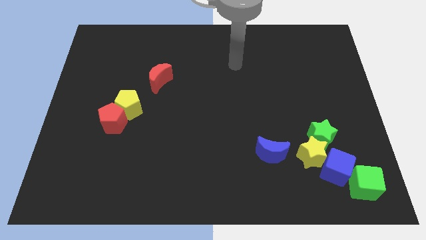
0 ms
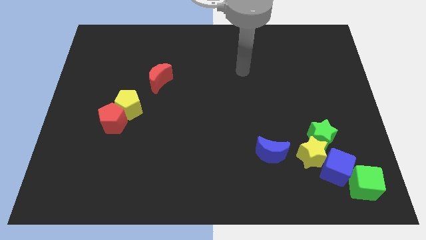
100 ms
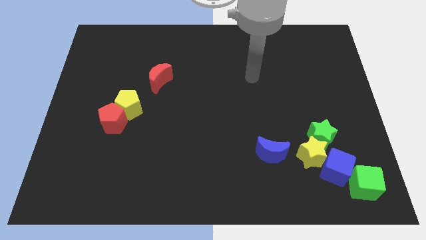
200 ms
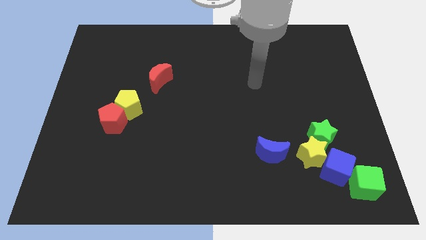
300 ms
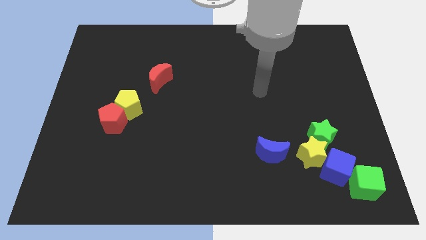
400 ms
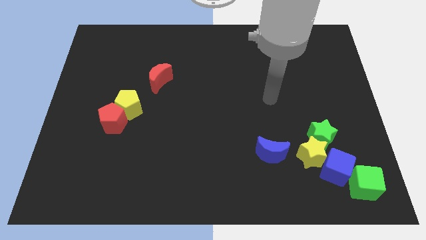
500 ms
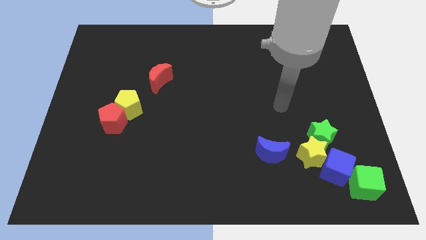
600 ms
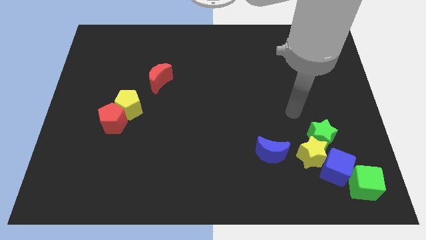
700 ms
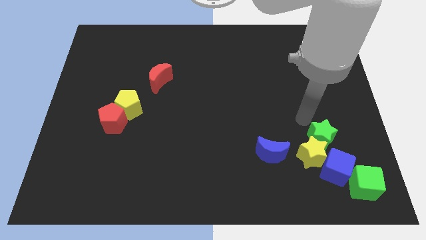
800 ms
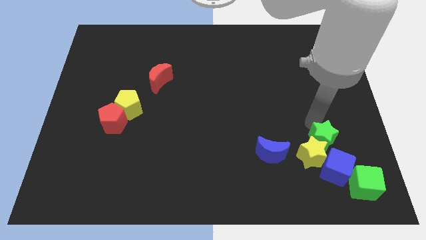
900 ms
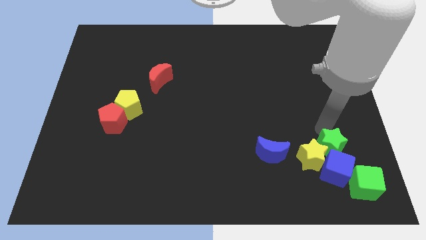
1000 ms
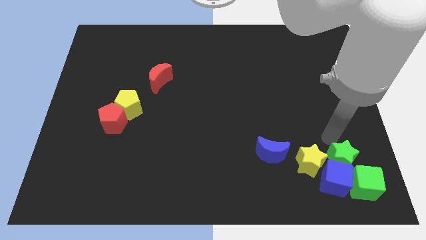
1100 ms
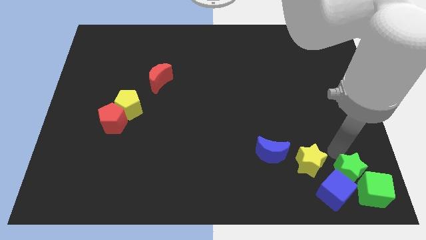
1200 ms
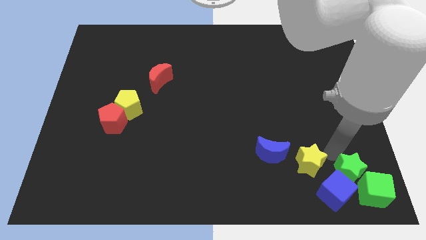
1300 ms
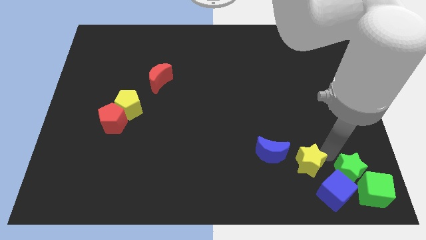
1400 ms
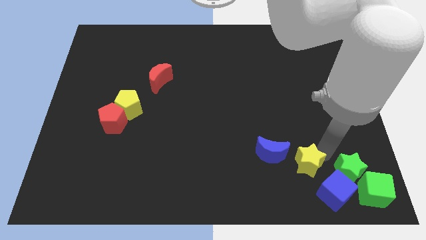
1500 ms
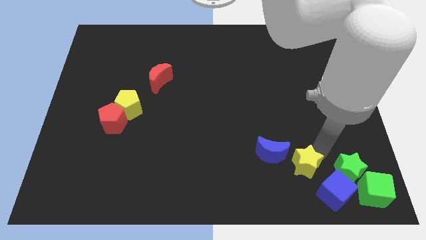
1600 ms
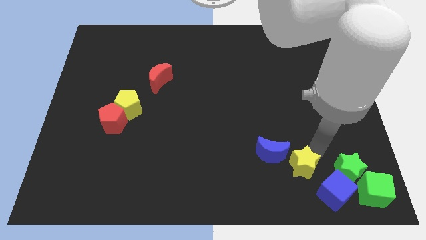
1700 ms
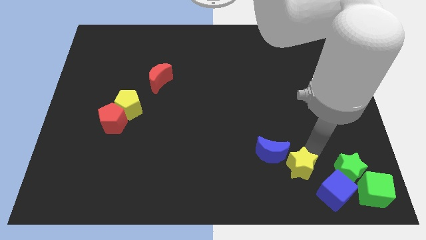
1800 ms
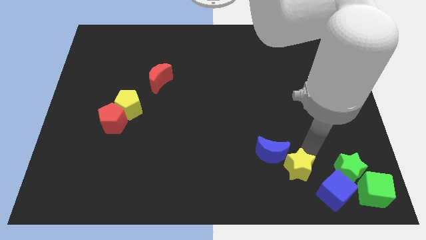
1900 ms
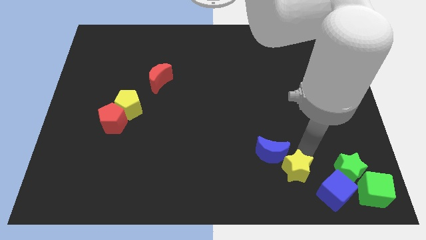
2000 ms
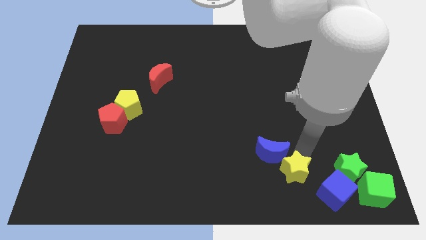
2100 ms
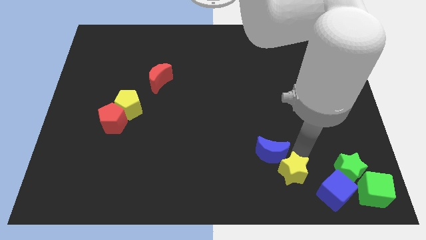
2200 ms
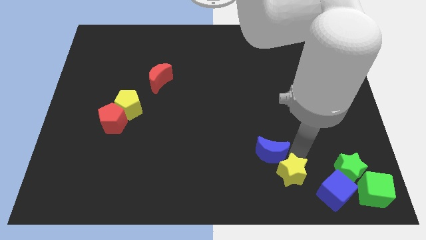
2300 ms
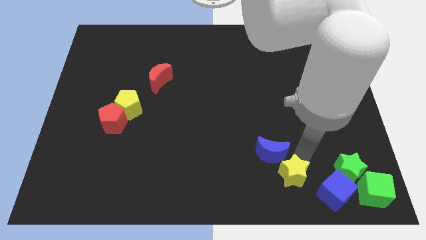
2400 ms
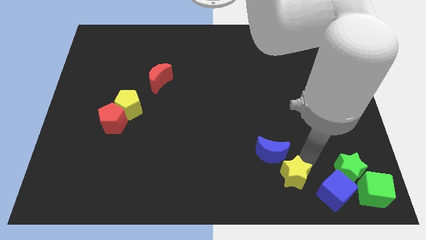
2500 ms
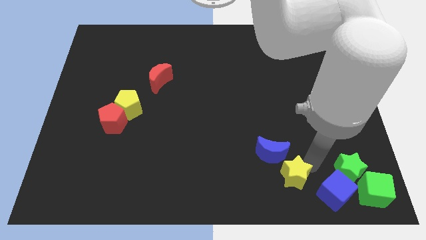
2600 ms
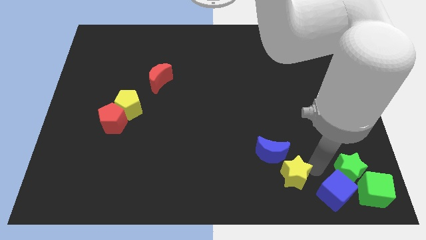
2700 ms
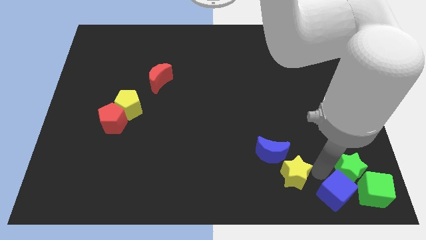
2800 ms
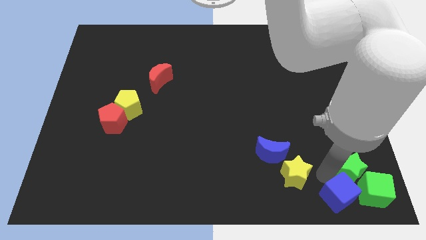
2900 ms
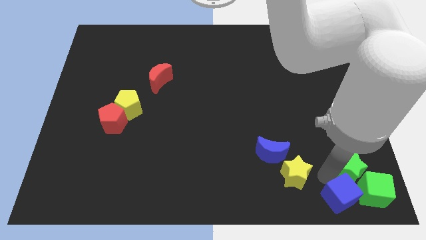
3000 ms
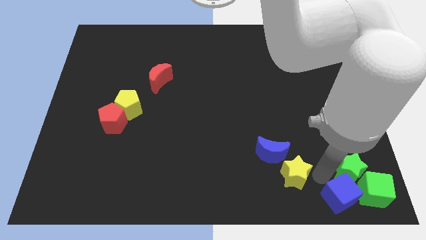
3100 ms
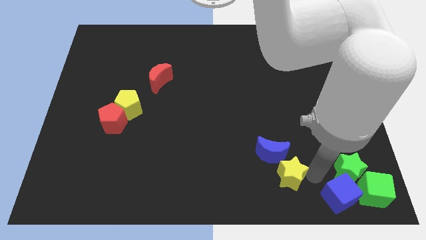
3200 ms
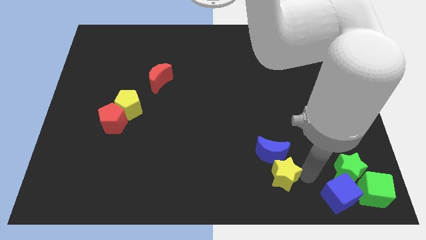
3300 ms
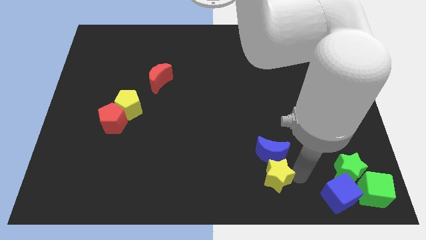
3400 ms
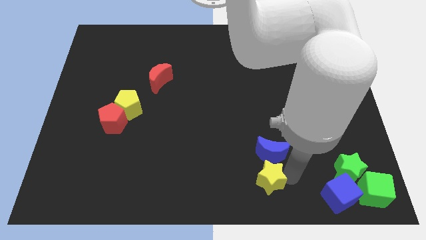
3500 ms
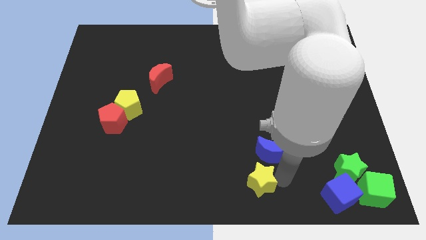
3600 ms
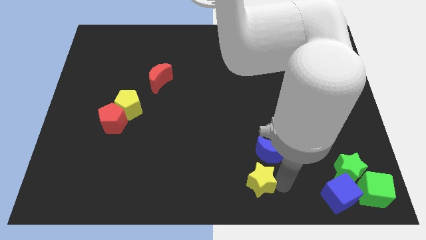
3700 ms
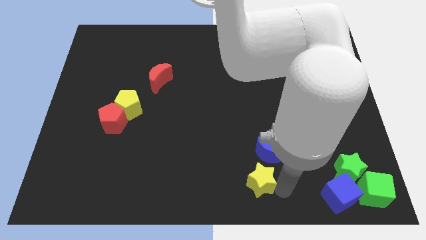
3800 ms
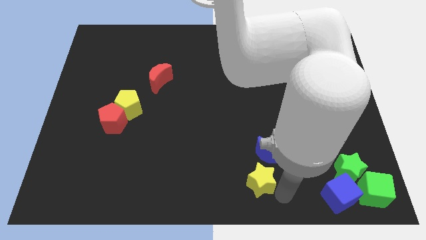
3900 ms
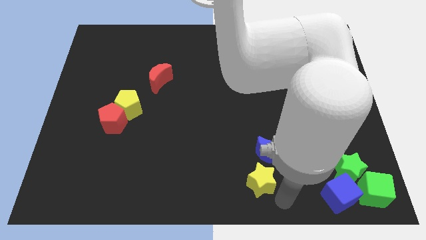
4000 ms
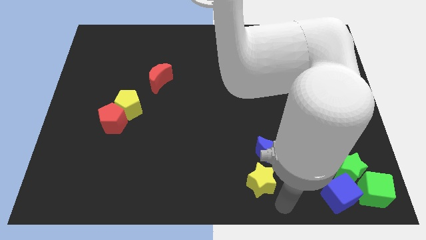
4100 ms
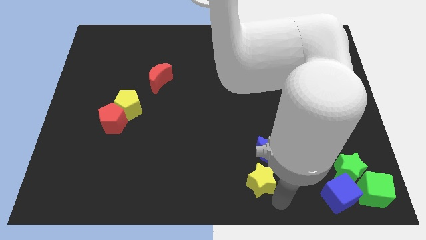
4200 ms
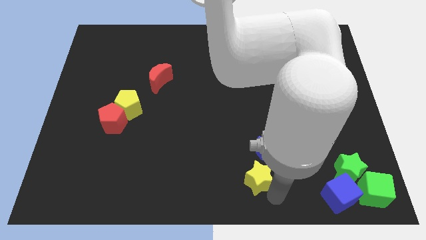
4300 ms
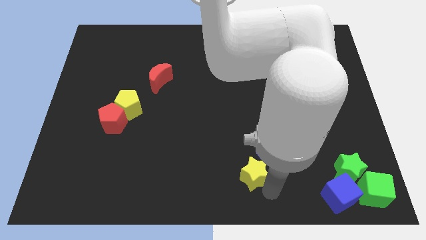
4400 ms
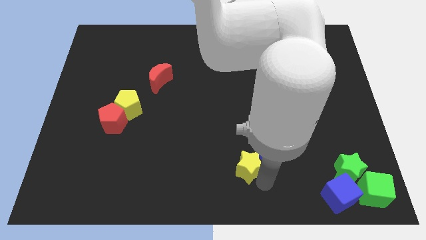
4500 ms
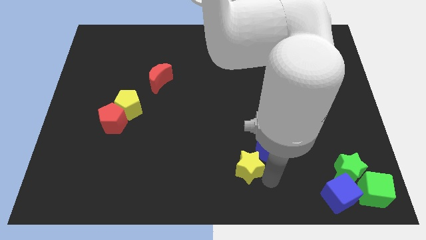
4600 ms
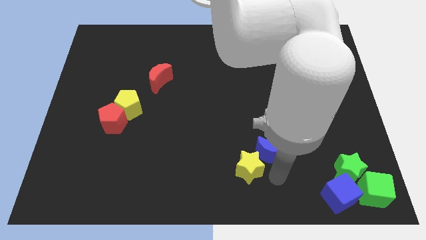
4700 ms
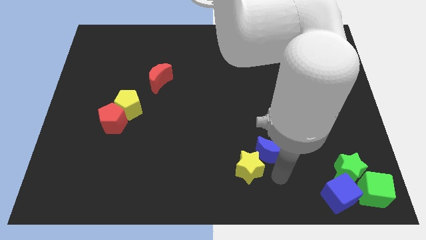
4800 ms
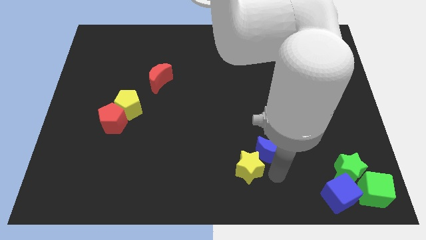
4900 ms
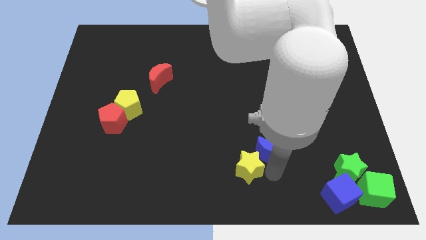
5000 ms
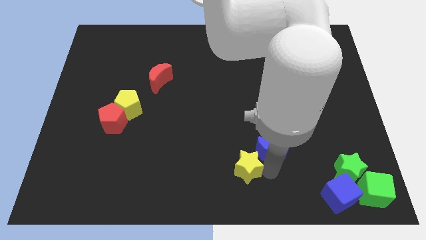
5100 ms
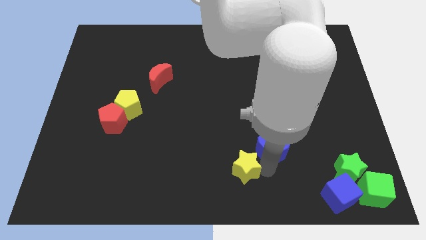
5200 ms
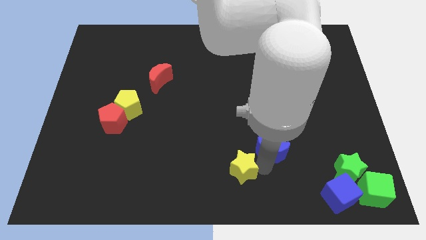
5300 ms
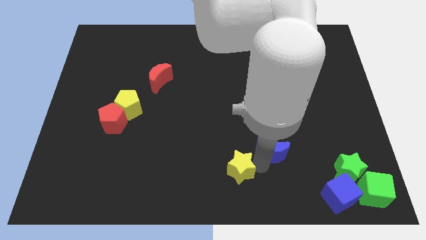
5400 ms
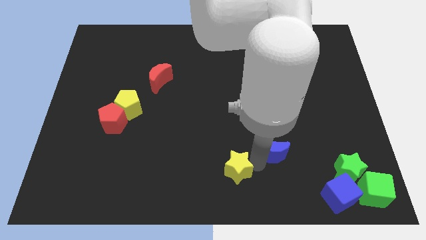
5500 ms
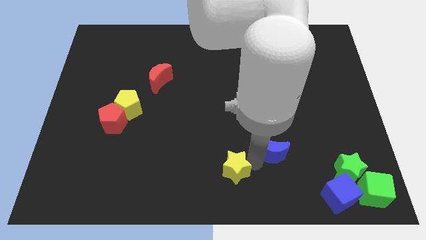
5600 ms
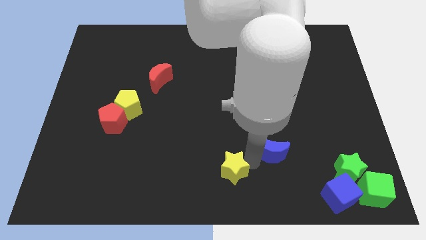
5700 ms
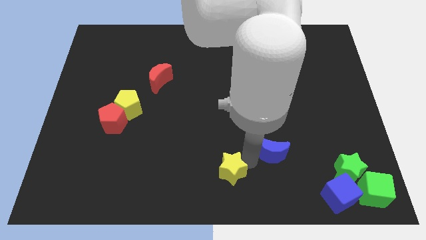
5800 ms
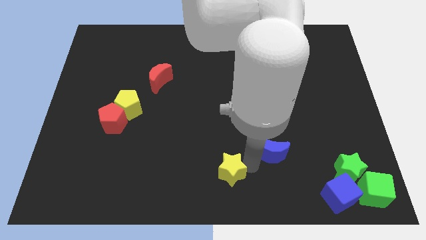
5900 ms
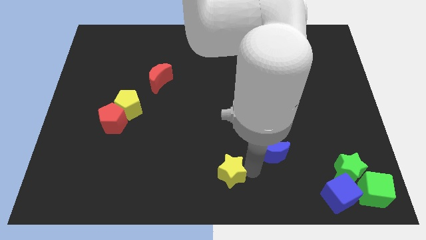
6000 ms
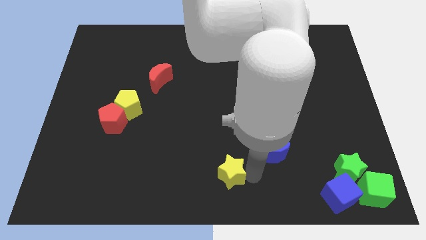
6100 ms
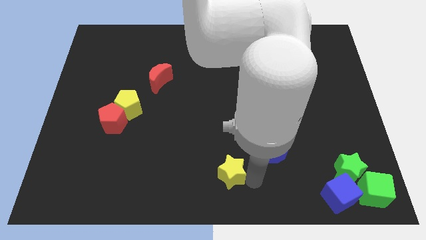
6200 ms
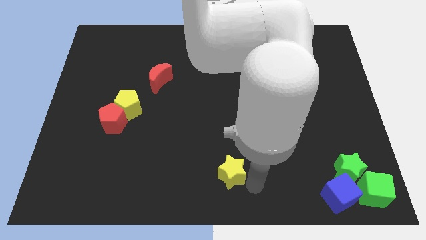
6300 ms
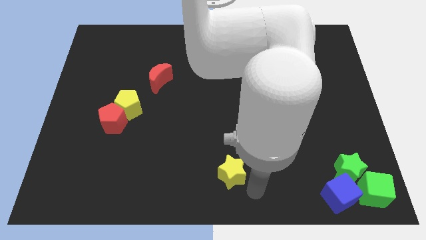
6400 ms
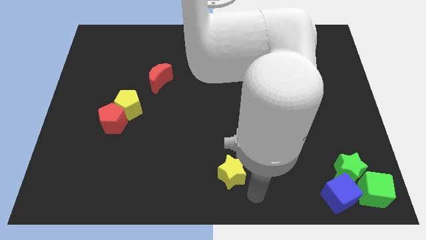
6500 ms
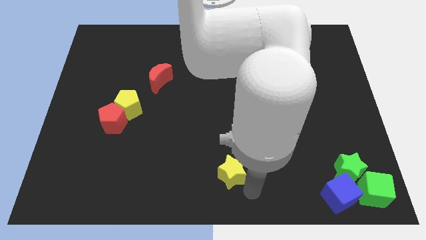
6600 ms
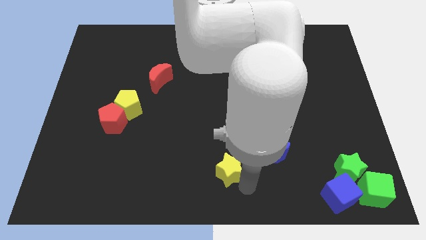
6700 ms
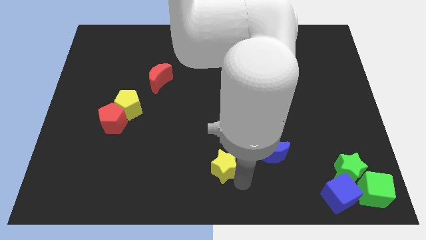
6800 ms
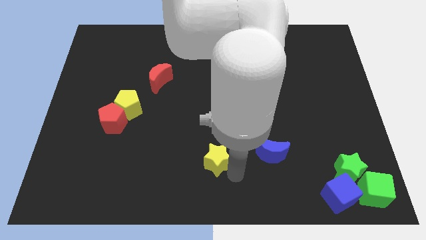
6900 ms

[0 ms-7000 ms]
move the yellow star left

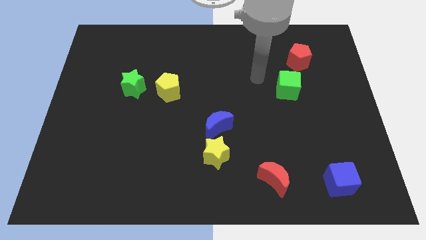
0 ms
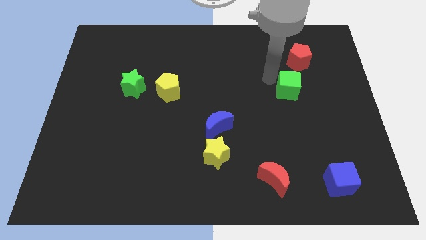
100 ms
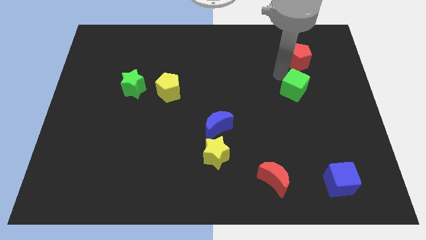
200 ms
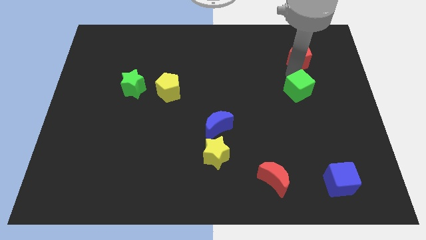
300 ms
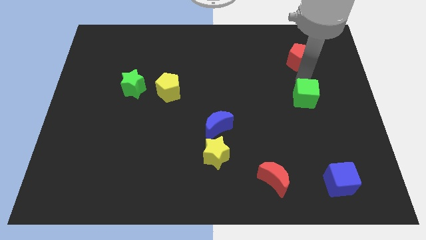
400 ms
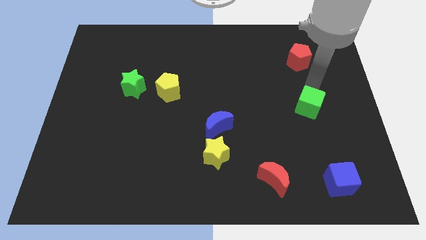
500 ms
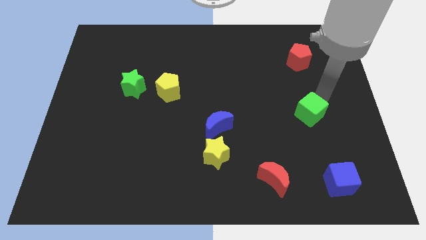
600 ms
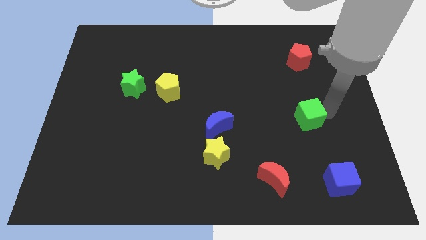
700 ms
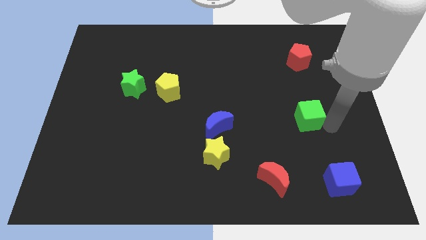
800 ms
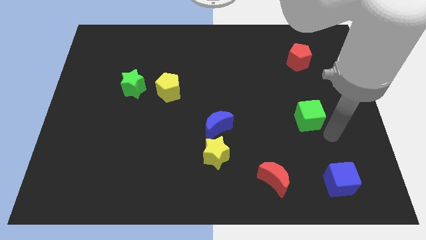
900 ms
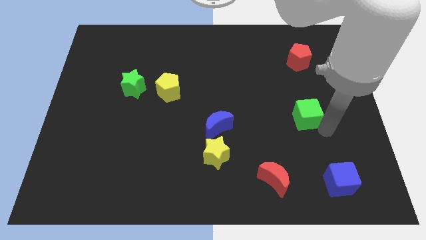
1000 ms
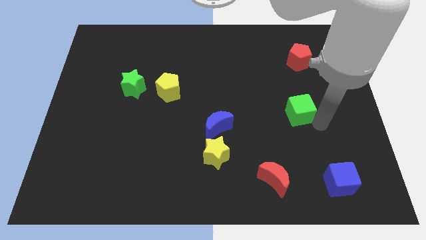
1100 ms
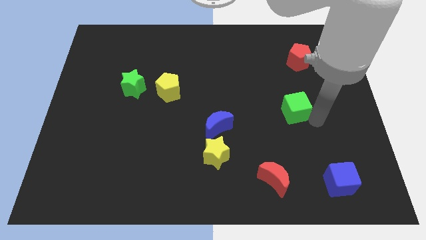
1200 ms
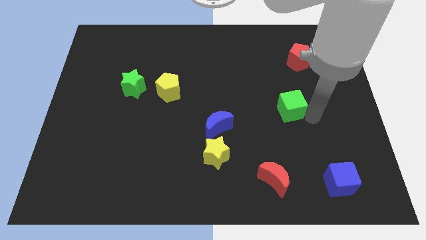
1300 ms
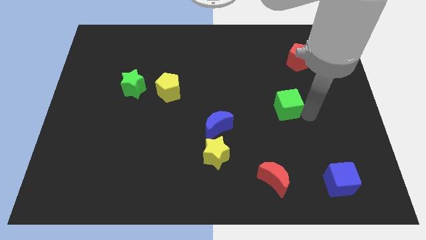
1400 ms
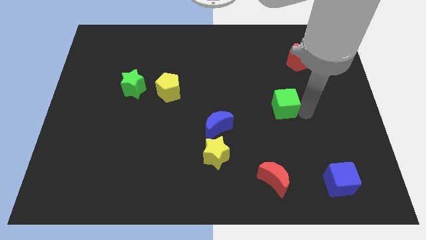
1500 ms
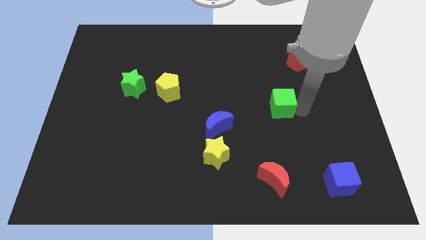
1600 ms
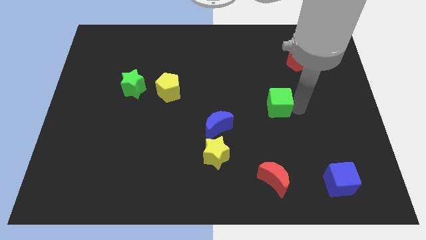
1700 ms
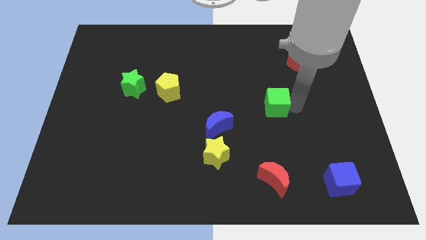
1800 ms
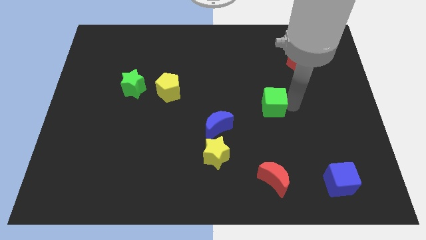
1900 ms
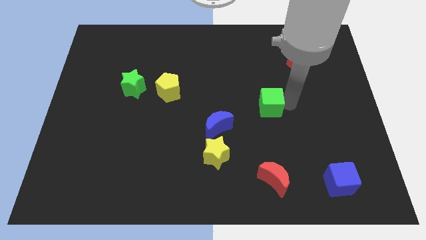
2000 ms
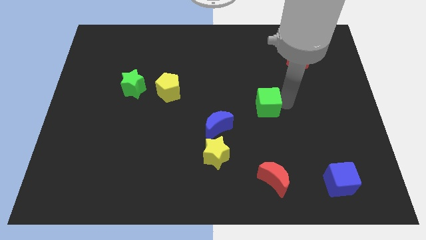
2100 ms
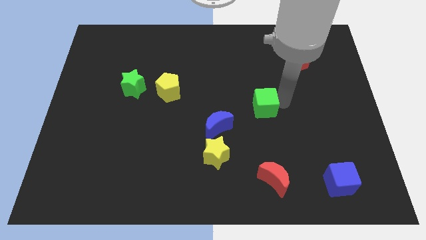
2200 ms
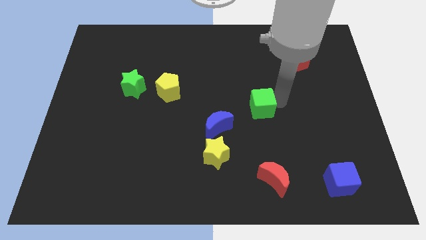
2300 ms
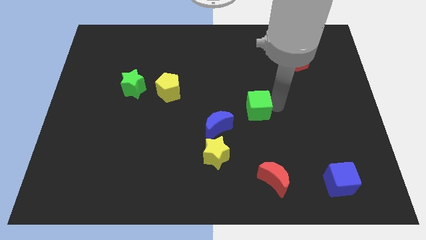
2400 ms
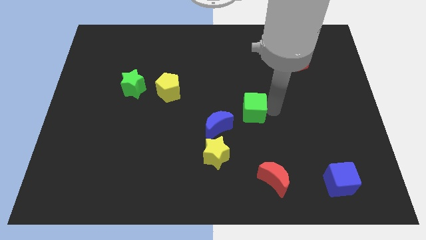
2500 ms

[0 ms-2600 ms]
slightly push the green cube left
